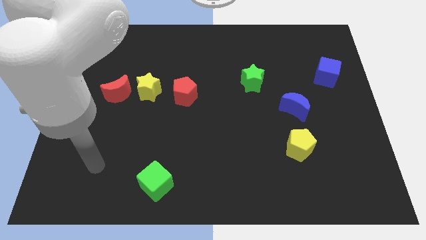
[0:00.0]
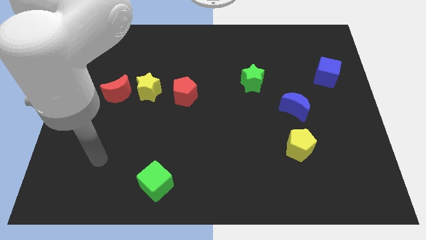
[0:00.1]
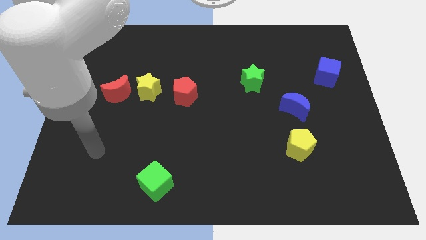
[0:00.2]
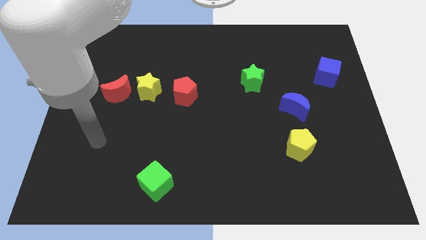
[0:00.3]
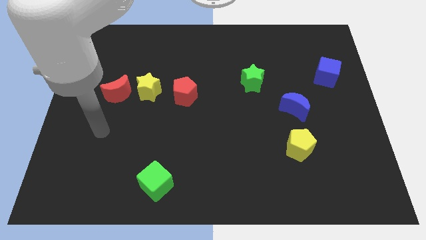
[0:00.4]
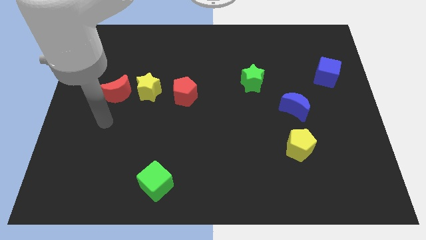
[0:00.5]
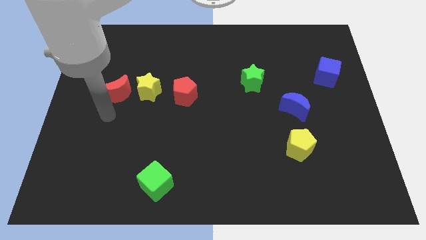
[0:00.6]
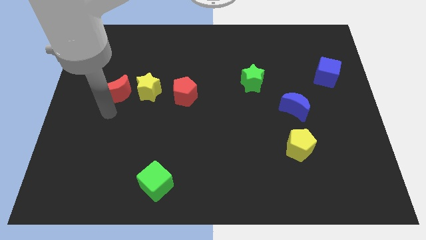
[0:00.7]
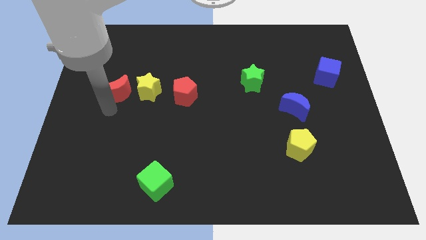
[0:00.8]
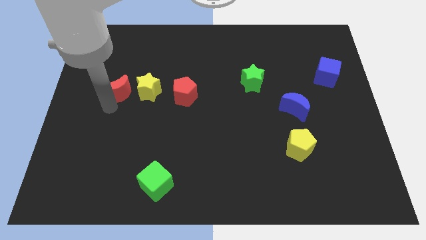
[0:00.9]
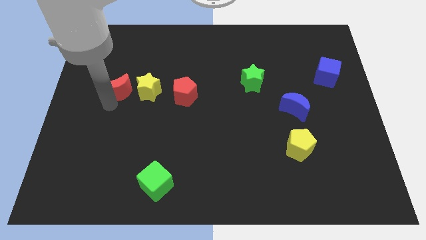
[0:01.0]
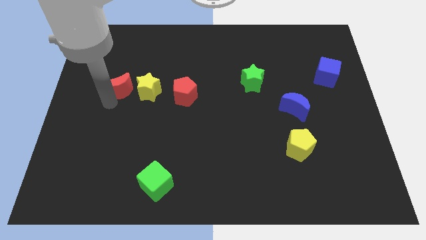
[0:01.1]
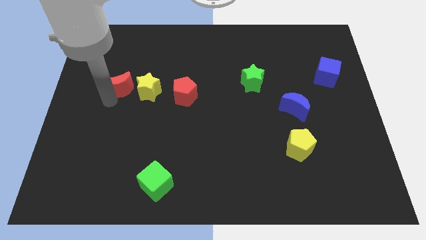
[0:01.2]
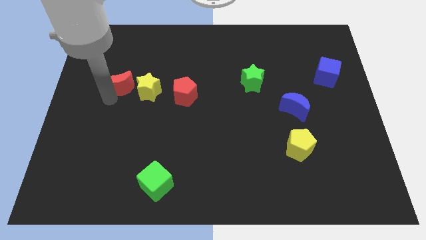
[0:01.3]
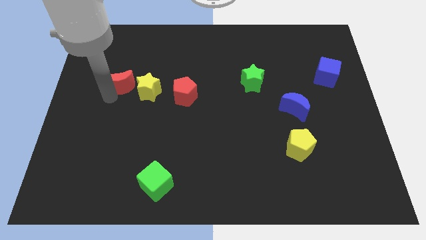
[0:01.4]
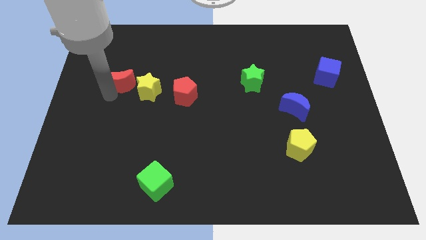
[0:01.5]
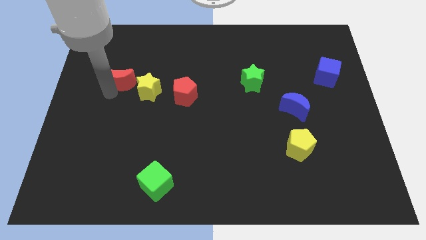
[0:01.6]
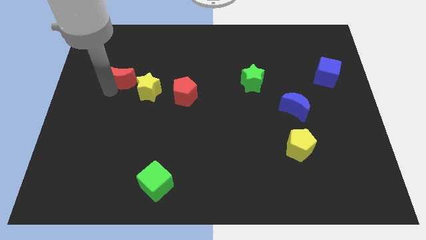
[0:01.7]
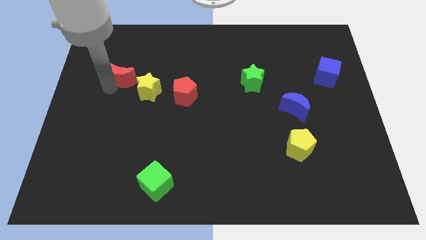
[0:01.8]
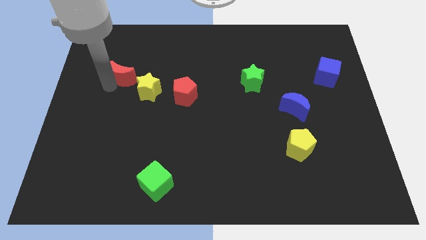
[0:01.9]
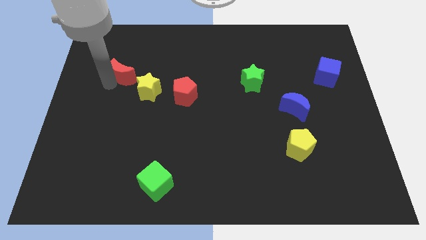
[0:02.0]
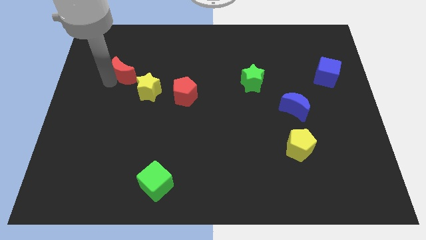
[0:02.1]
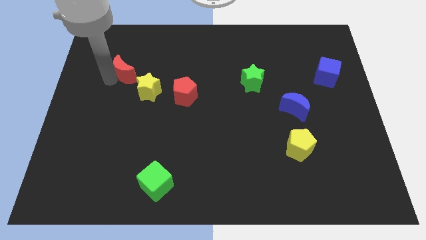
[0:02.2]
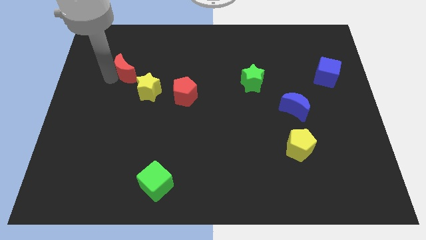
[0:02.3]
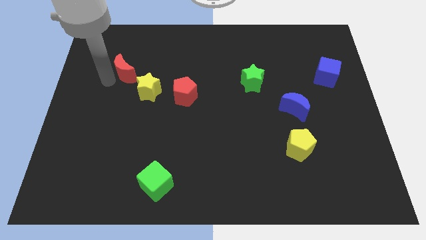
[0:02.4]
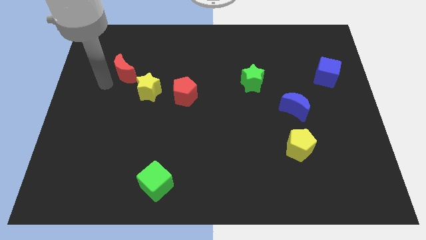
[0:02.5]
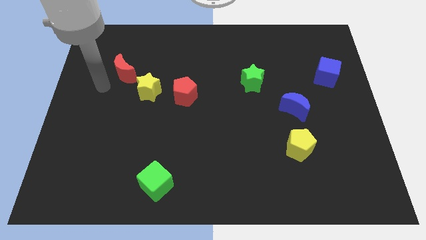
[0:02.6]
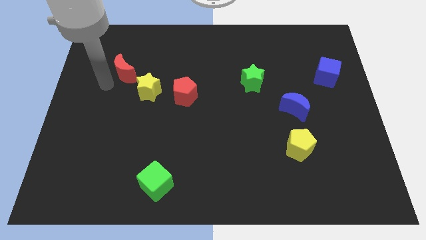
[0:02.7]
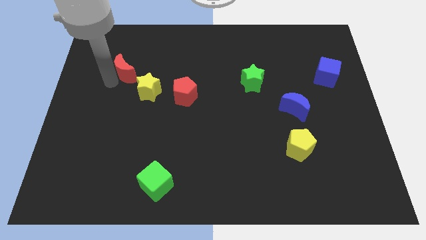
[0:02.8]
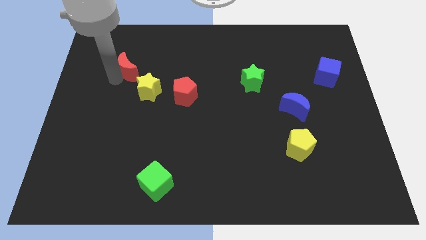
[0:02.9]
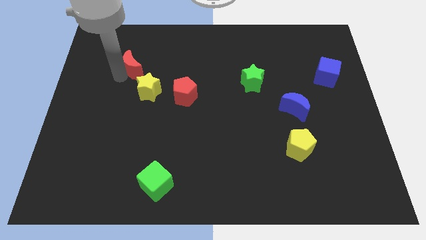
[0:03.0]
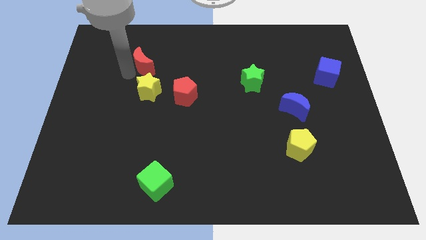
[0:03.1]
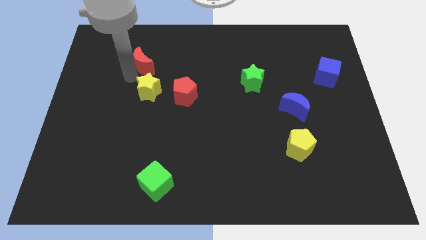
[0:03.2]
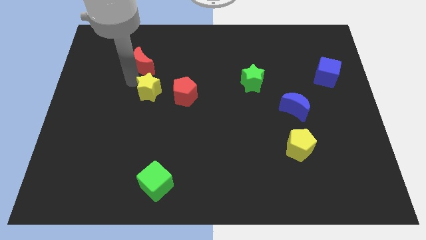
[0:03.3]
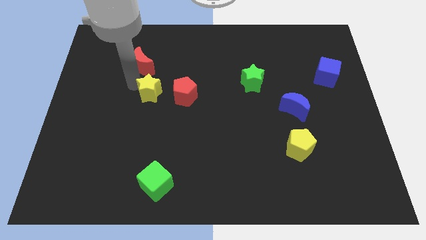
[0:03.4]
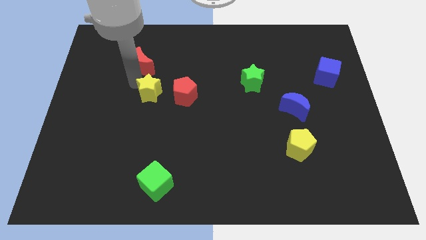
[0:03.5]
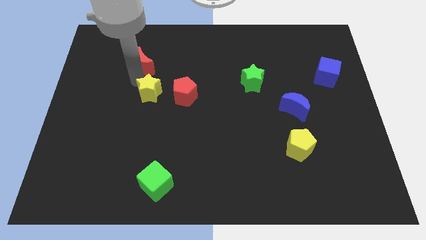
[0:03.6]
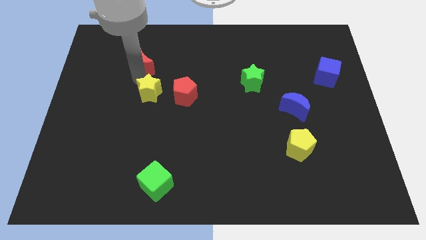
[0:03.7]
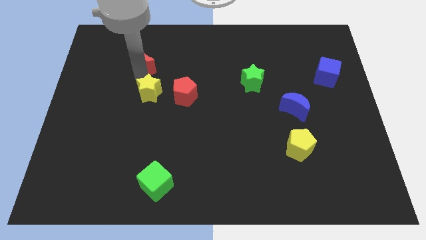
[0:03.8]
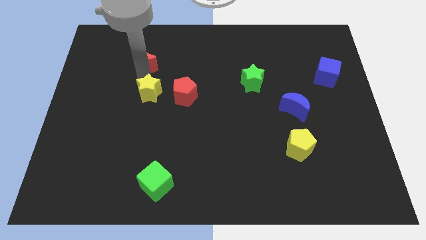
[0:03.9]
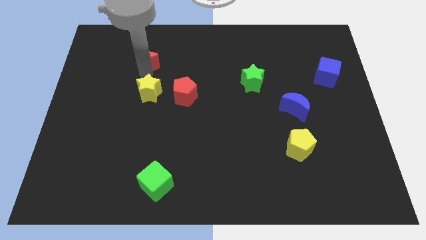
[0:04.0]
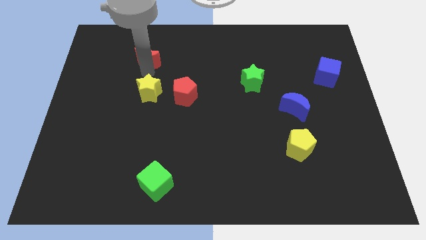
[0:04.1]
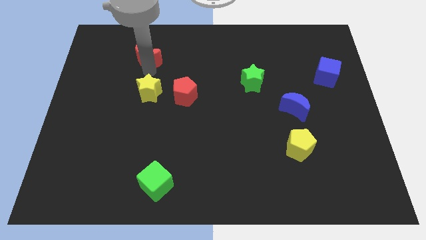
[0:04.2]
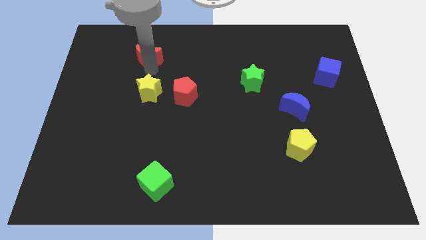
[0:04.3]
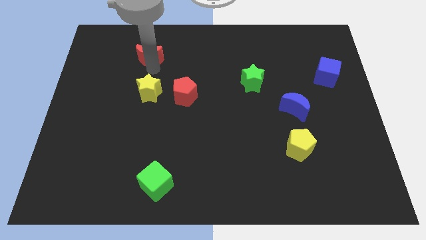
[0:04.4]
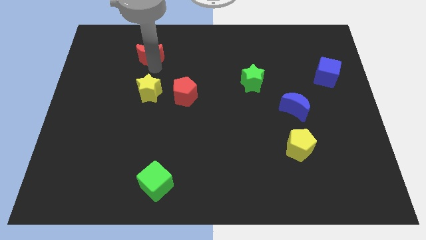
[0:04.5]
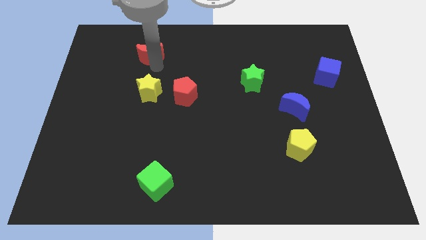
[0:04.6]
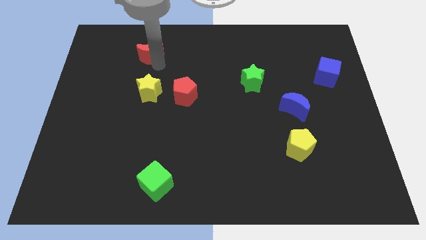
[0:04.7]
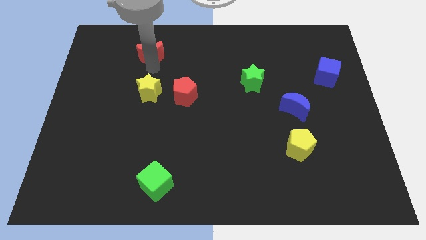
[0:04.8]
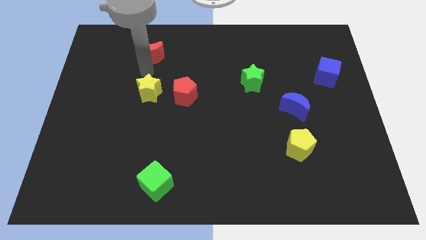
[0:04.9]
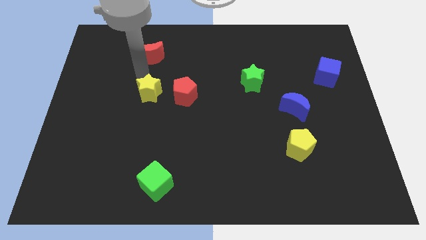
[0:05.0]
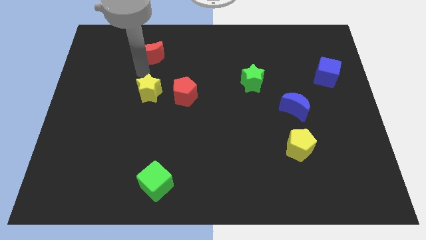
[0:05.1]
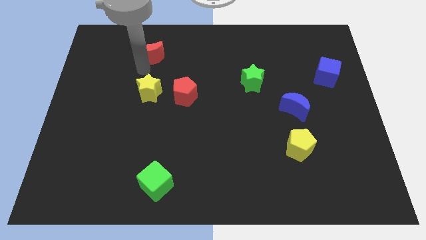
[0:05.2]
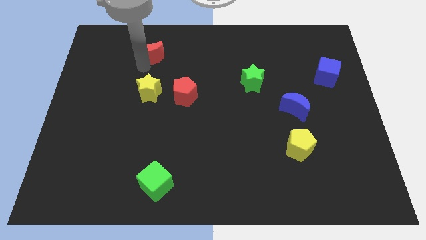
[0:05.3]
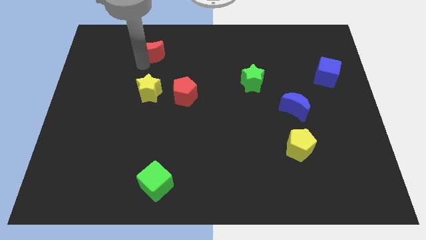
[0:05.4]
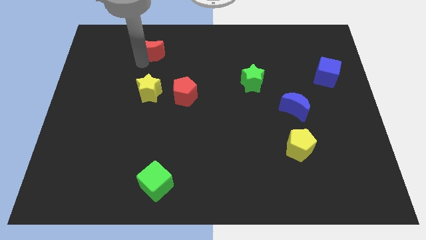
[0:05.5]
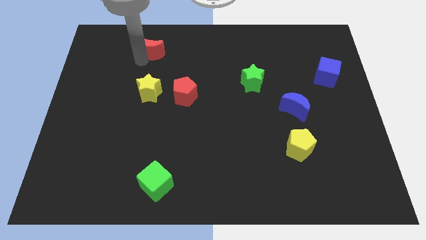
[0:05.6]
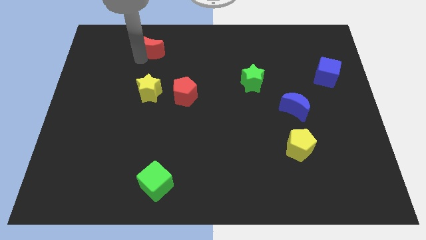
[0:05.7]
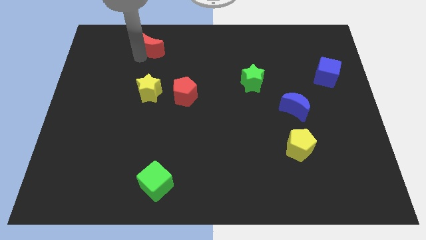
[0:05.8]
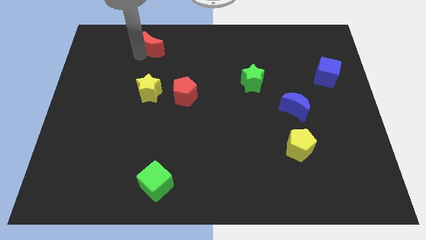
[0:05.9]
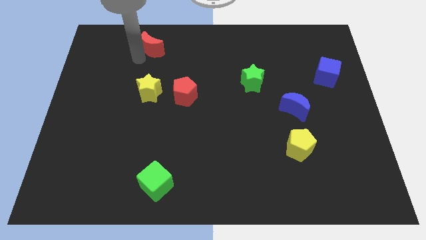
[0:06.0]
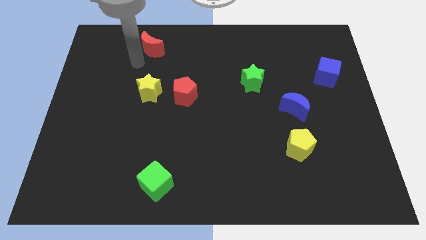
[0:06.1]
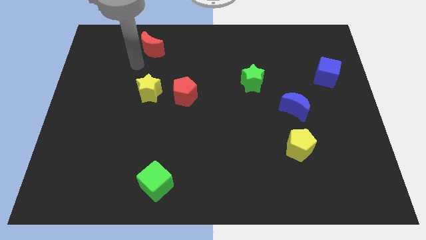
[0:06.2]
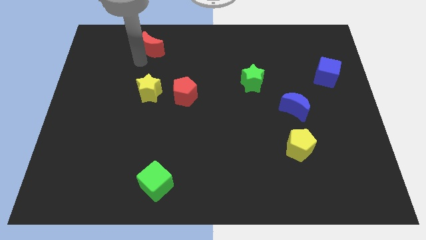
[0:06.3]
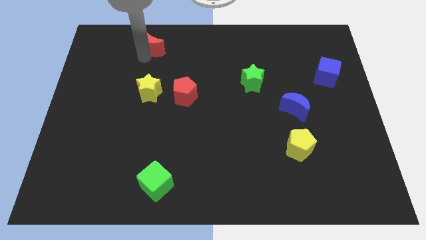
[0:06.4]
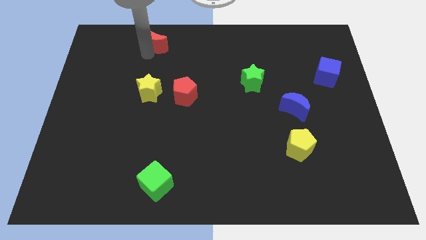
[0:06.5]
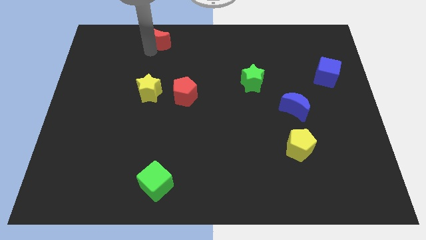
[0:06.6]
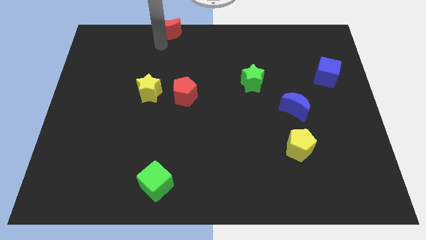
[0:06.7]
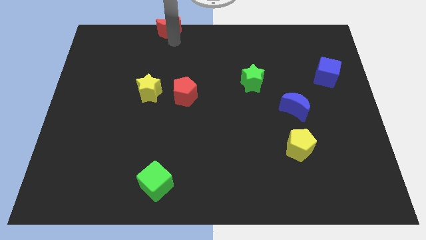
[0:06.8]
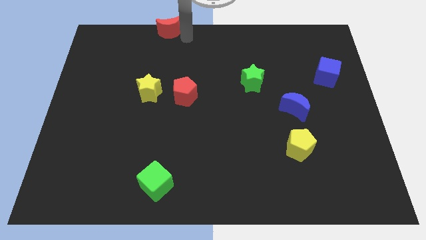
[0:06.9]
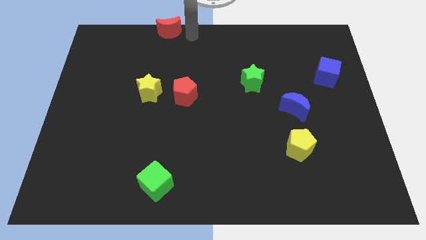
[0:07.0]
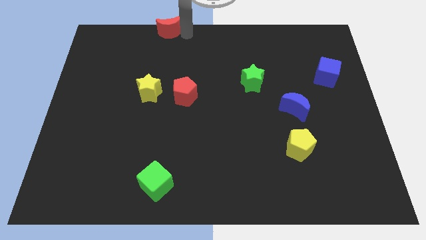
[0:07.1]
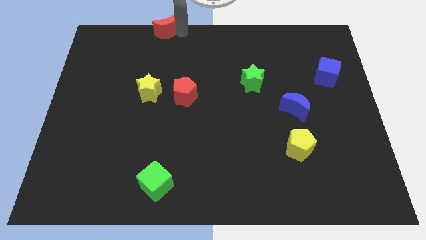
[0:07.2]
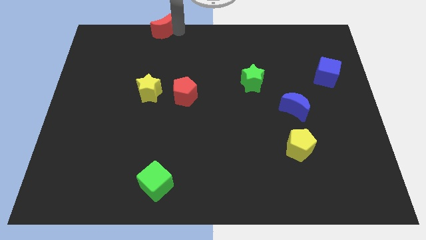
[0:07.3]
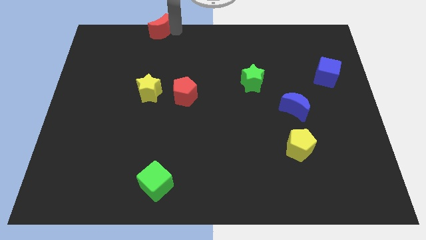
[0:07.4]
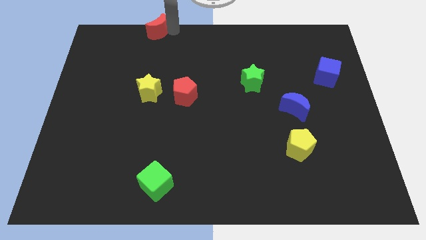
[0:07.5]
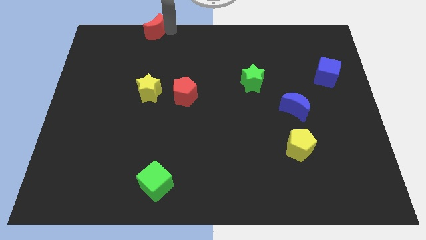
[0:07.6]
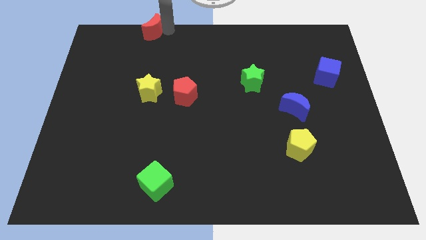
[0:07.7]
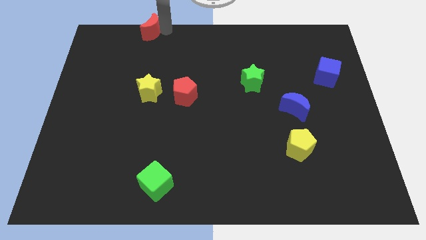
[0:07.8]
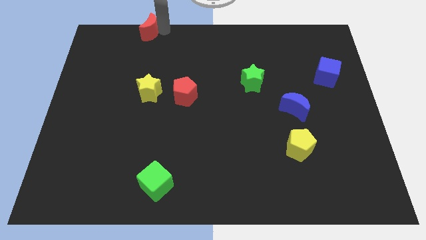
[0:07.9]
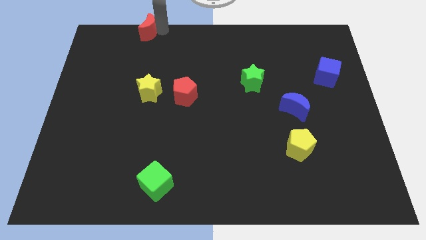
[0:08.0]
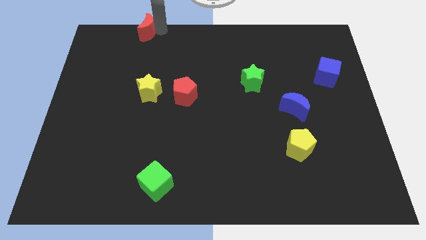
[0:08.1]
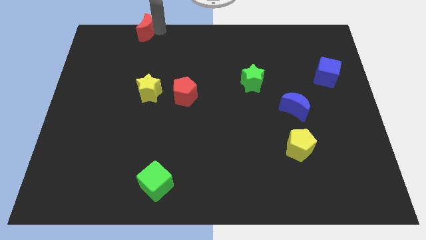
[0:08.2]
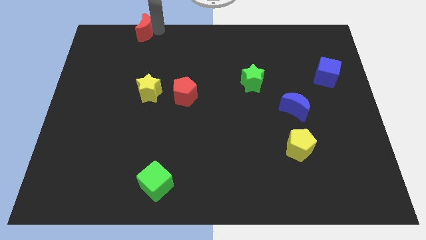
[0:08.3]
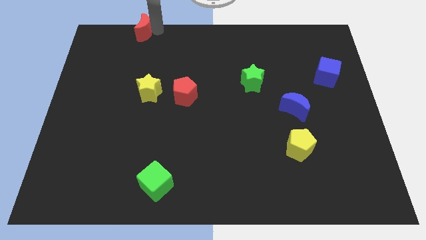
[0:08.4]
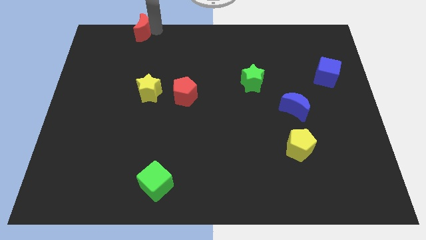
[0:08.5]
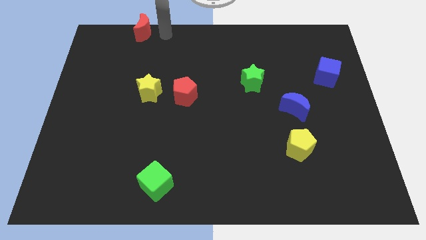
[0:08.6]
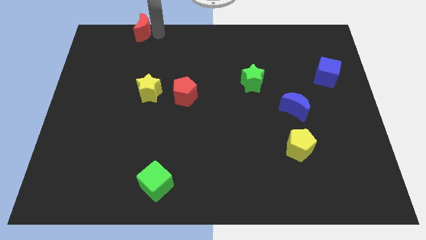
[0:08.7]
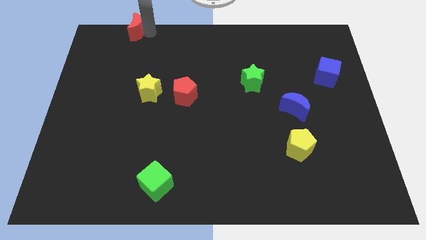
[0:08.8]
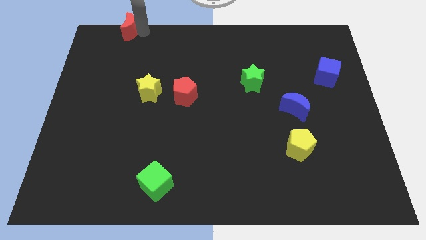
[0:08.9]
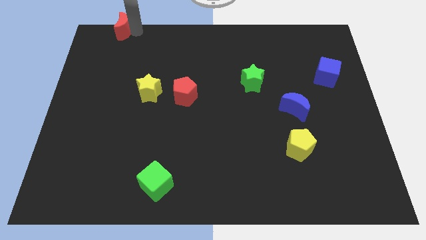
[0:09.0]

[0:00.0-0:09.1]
put the red moon to the upper left corner
